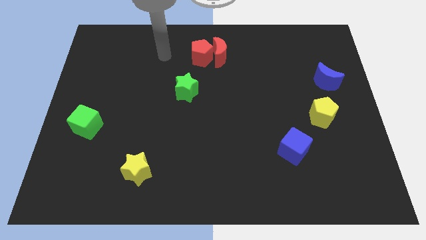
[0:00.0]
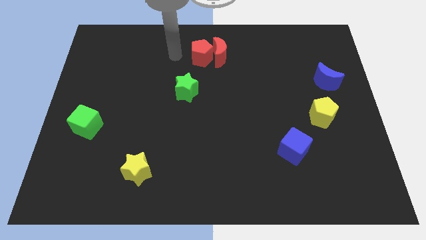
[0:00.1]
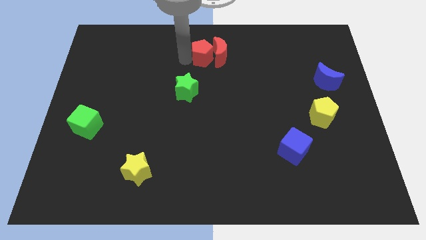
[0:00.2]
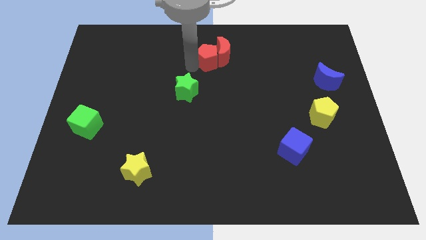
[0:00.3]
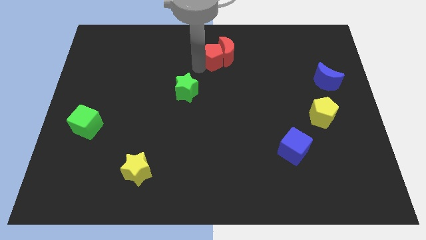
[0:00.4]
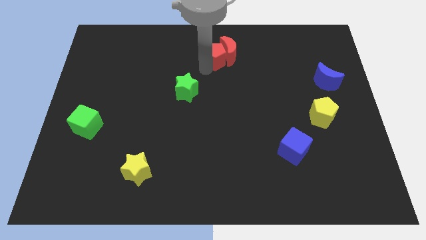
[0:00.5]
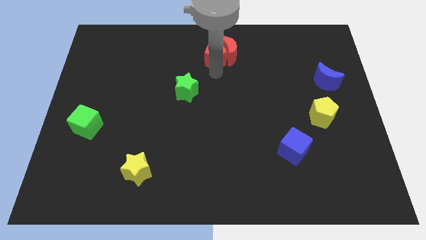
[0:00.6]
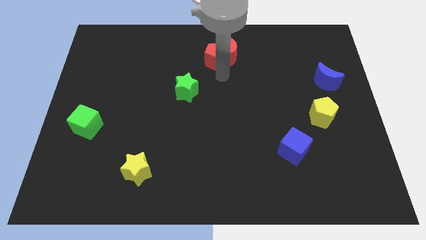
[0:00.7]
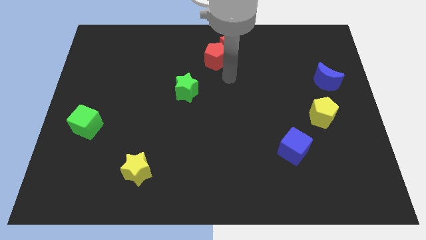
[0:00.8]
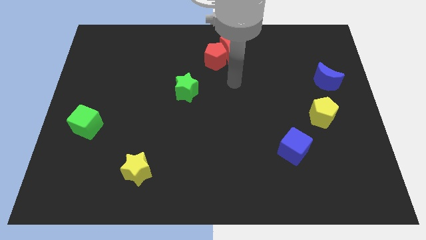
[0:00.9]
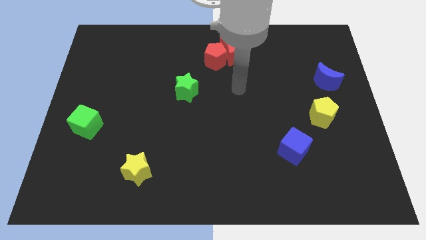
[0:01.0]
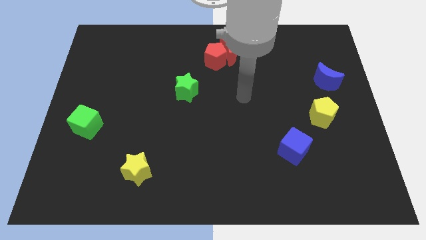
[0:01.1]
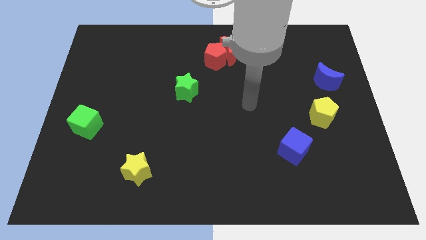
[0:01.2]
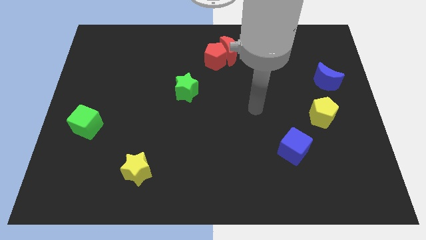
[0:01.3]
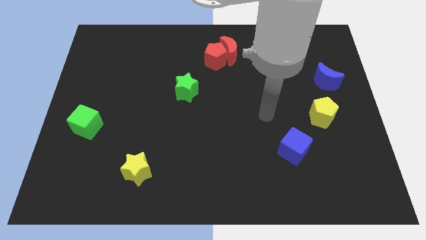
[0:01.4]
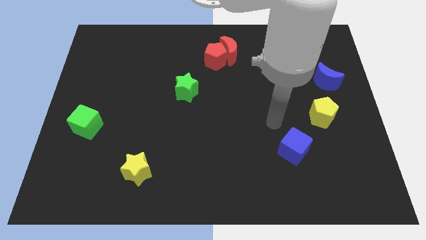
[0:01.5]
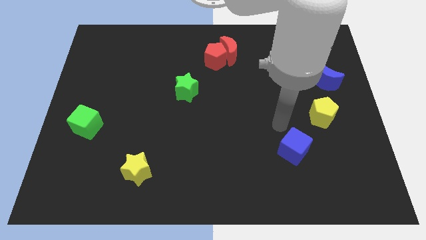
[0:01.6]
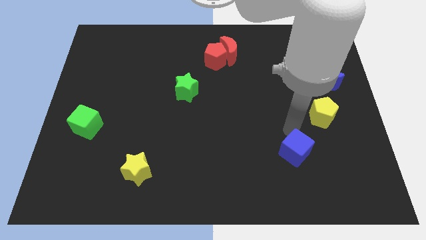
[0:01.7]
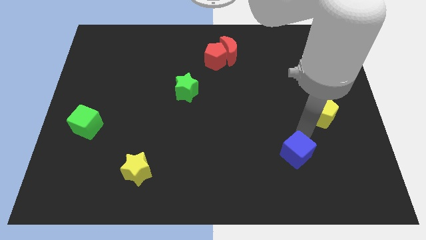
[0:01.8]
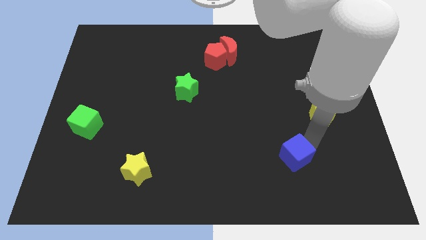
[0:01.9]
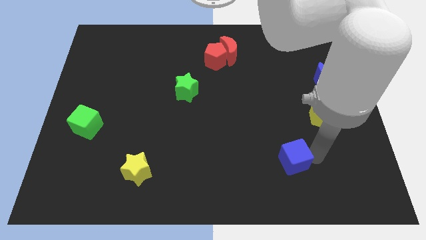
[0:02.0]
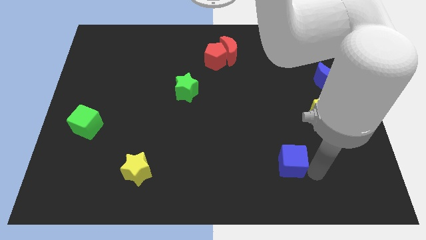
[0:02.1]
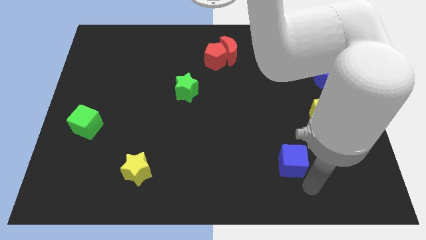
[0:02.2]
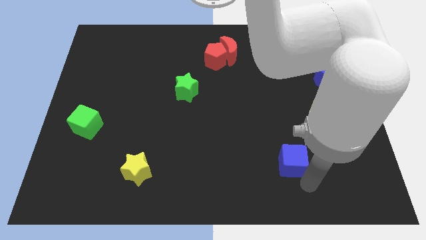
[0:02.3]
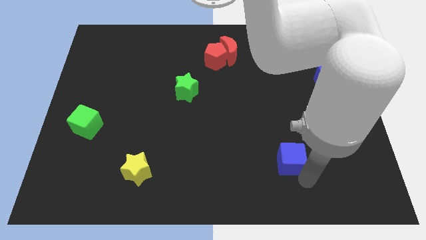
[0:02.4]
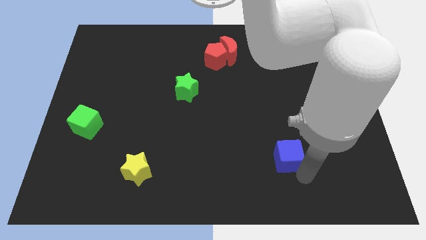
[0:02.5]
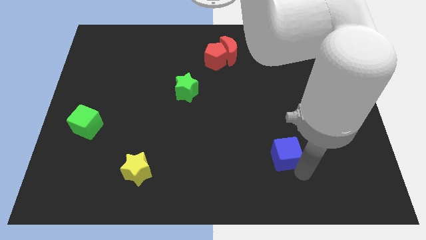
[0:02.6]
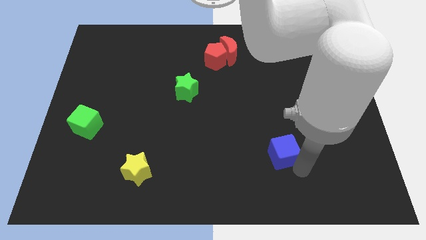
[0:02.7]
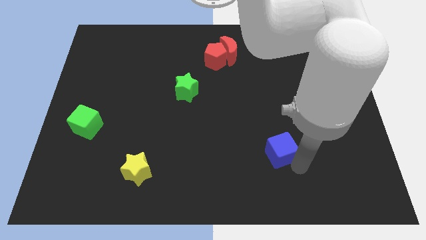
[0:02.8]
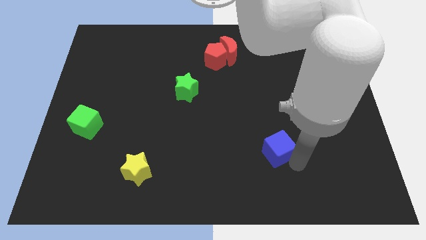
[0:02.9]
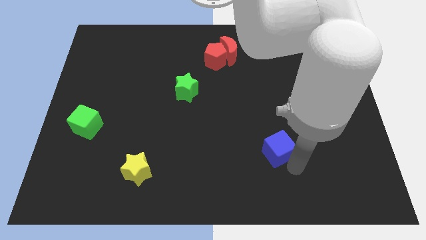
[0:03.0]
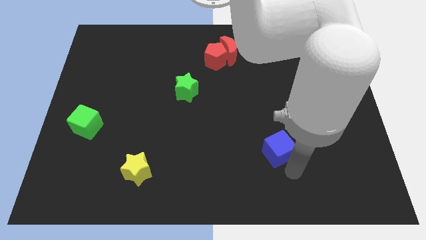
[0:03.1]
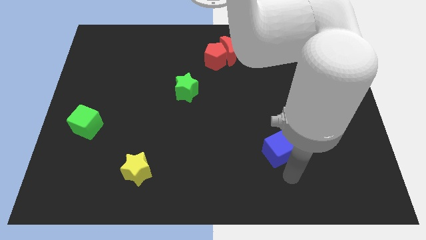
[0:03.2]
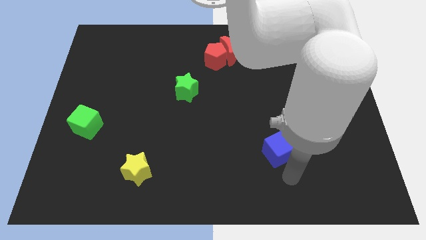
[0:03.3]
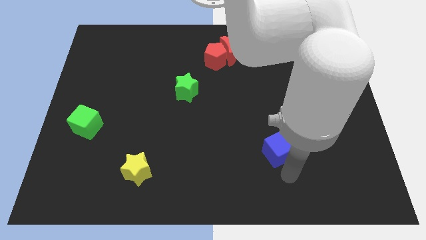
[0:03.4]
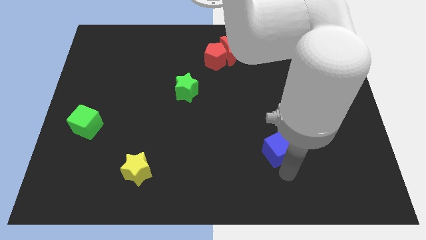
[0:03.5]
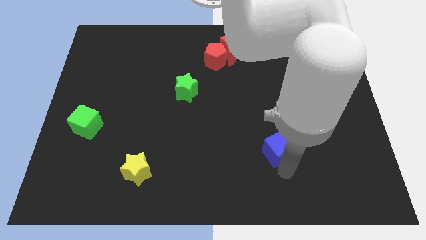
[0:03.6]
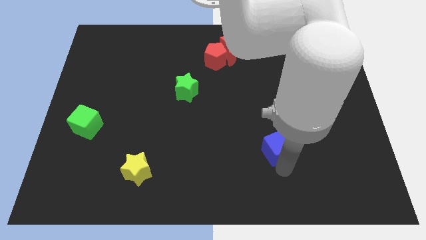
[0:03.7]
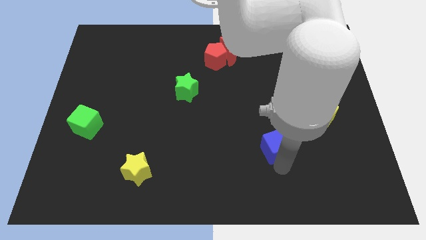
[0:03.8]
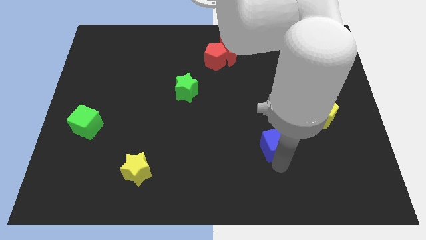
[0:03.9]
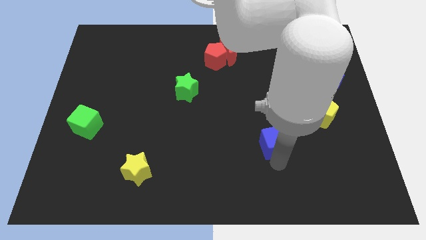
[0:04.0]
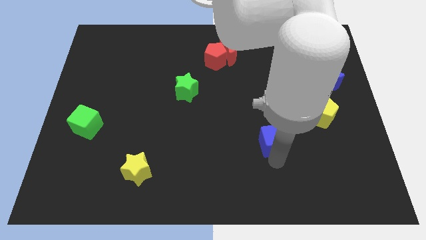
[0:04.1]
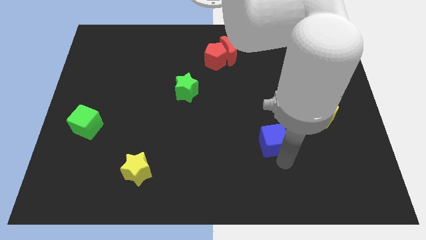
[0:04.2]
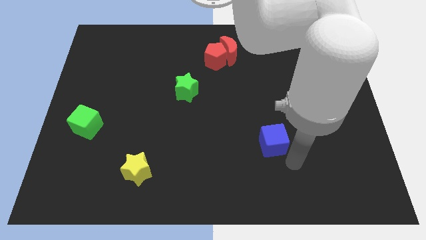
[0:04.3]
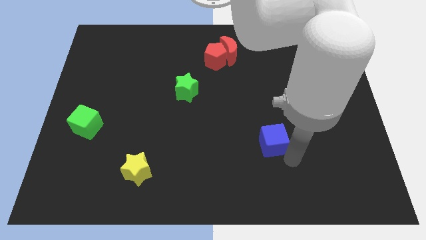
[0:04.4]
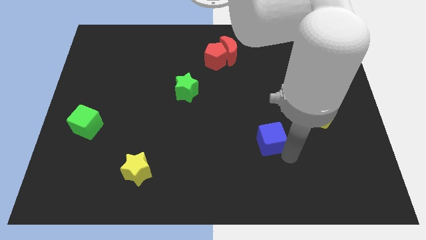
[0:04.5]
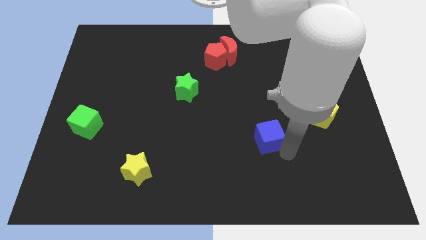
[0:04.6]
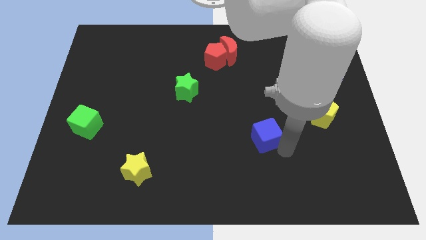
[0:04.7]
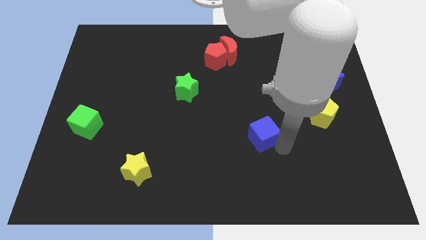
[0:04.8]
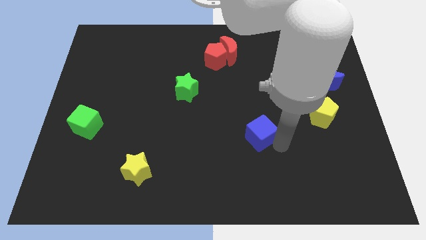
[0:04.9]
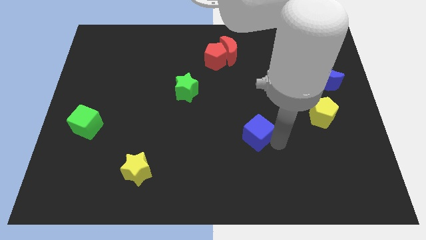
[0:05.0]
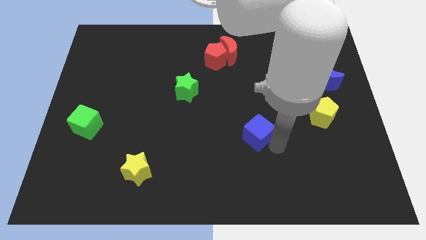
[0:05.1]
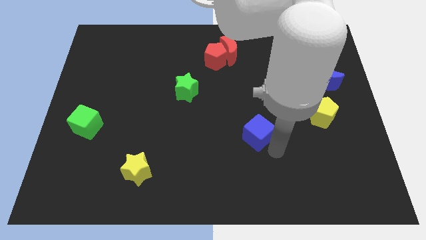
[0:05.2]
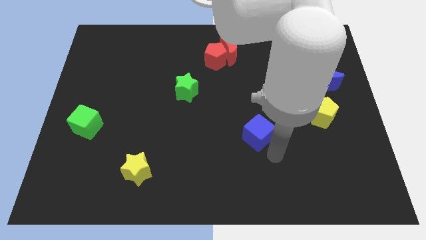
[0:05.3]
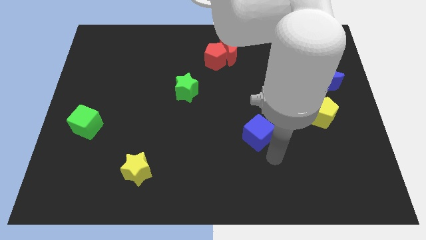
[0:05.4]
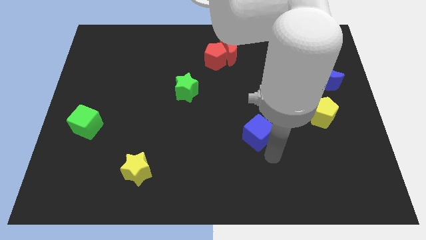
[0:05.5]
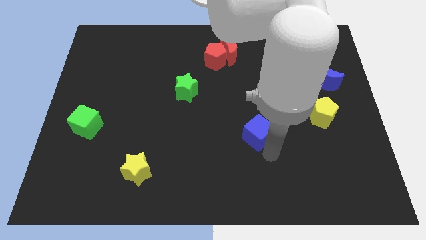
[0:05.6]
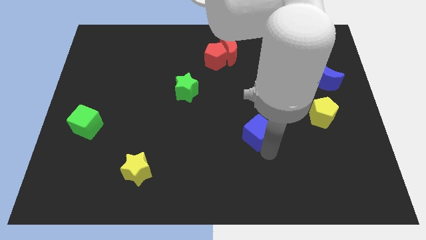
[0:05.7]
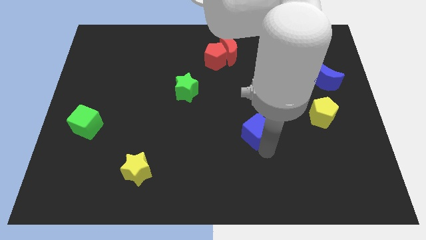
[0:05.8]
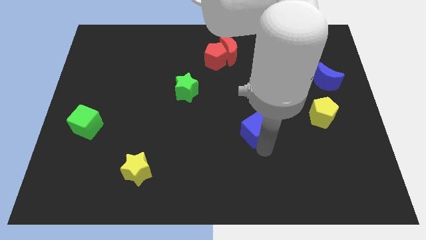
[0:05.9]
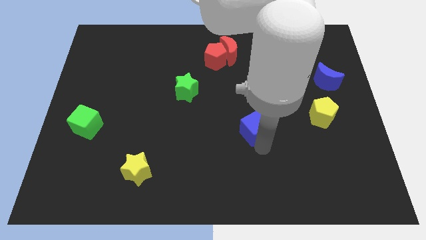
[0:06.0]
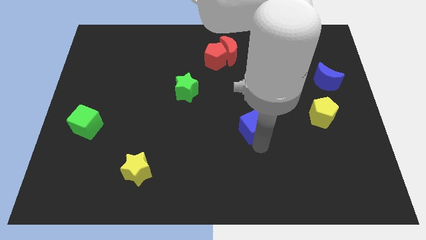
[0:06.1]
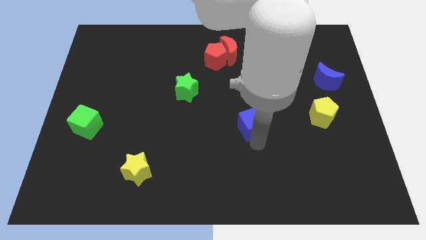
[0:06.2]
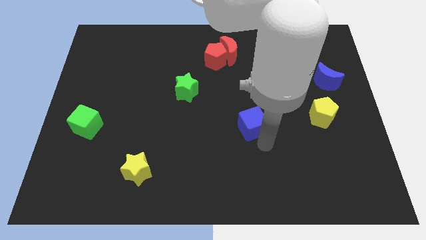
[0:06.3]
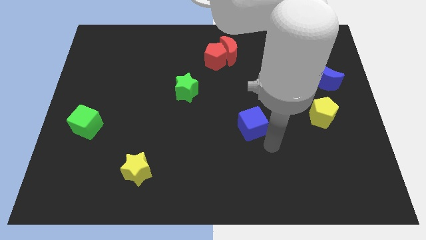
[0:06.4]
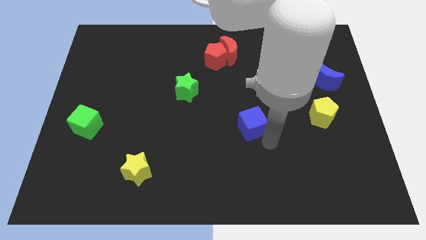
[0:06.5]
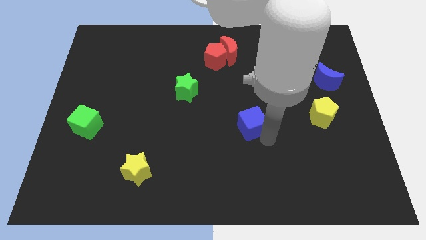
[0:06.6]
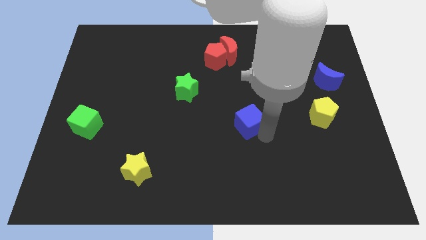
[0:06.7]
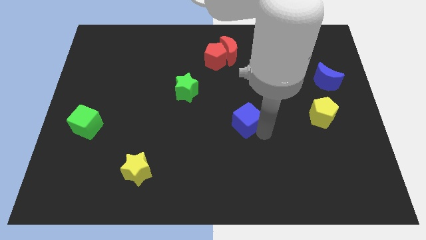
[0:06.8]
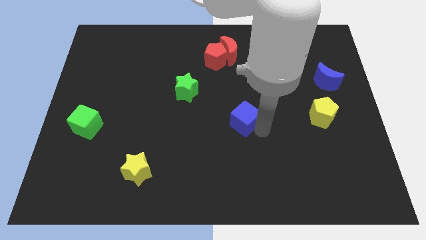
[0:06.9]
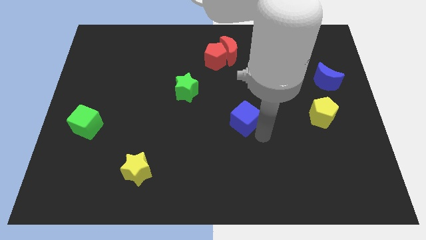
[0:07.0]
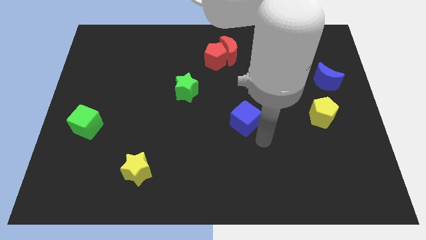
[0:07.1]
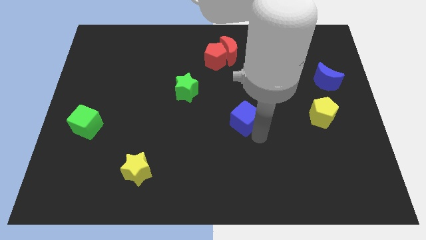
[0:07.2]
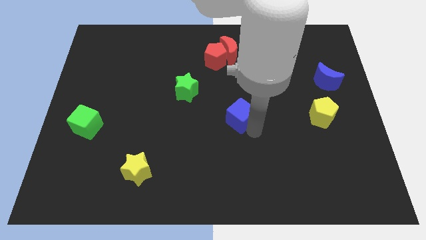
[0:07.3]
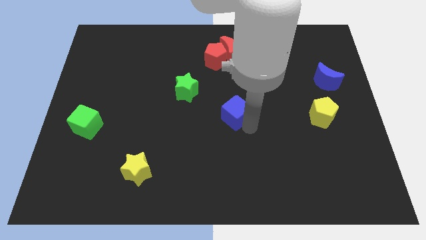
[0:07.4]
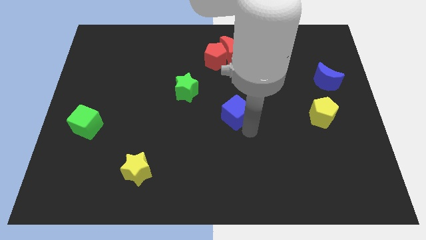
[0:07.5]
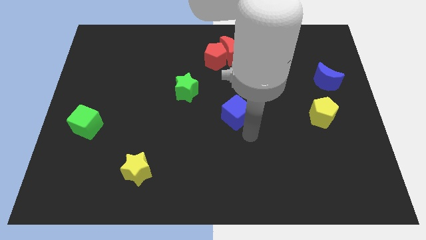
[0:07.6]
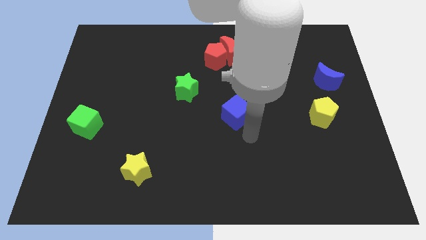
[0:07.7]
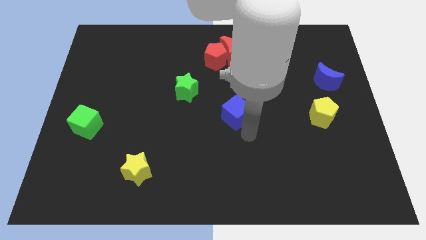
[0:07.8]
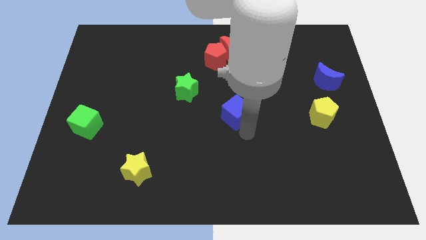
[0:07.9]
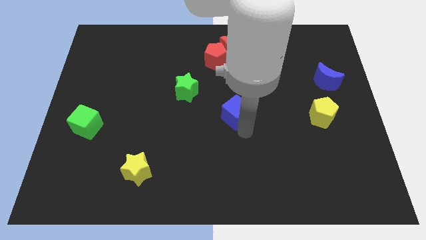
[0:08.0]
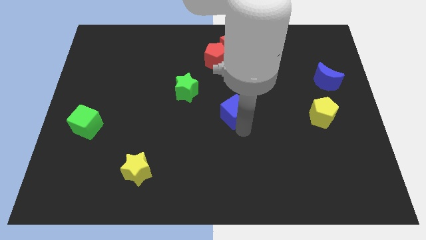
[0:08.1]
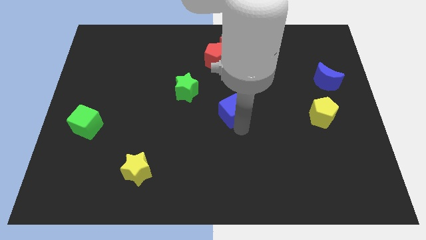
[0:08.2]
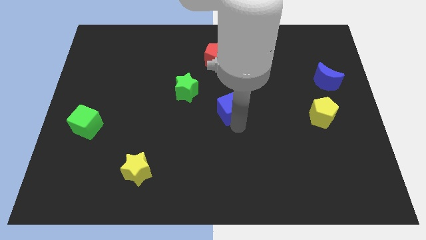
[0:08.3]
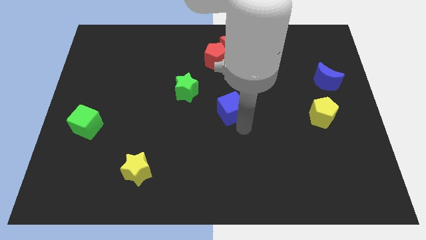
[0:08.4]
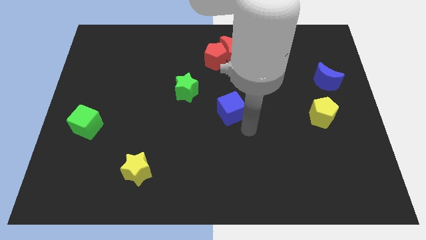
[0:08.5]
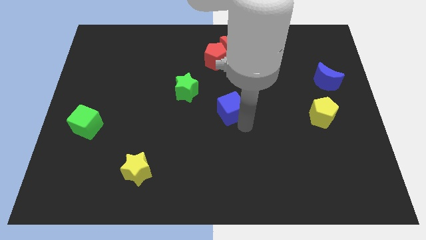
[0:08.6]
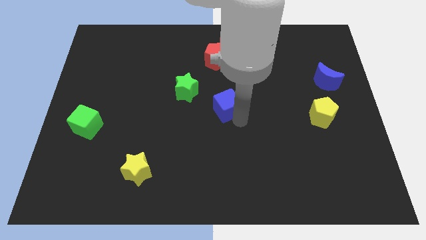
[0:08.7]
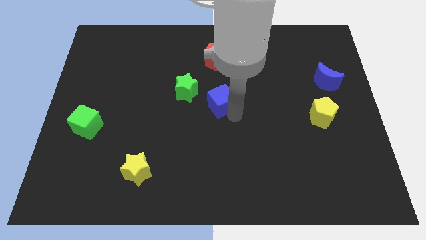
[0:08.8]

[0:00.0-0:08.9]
move the blue cube diagonally upwards and left
